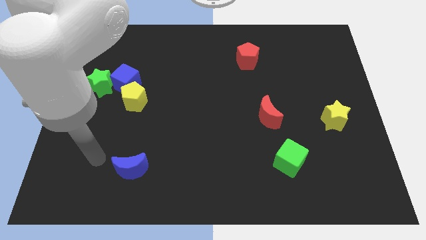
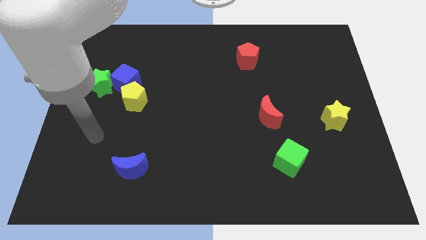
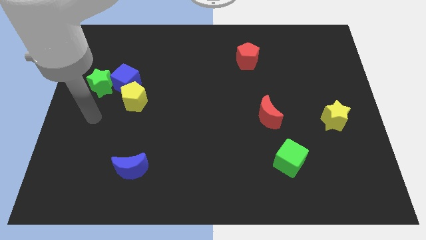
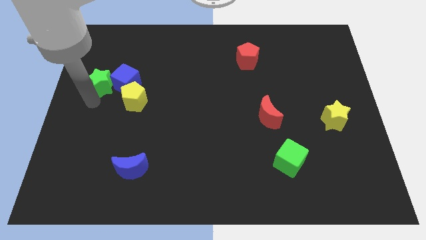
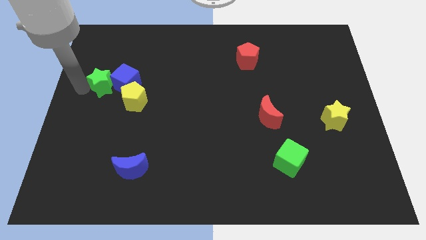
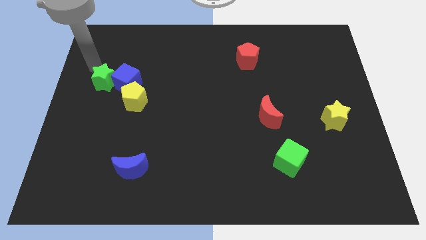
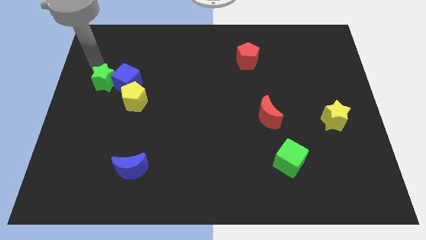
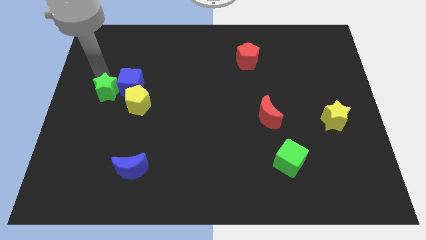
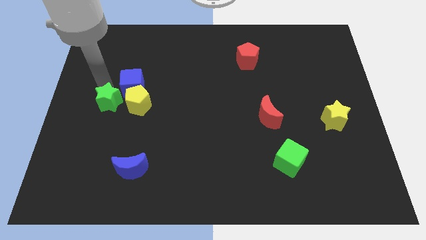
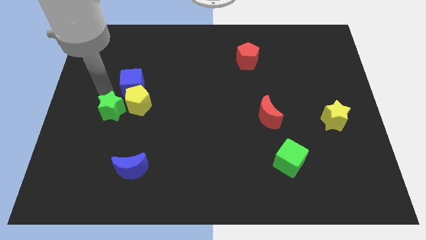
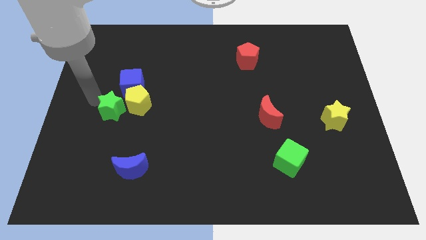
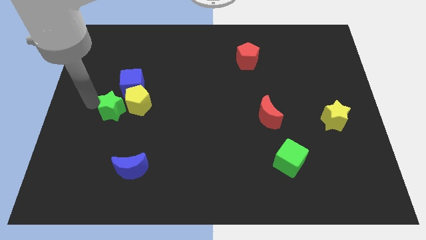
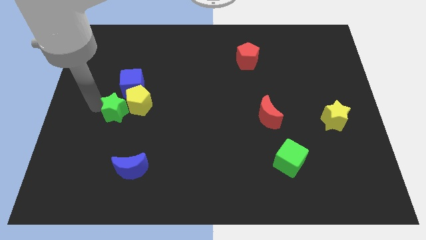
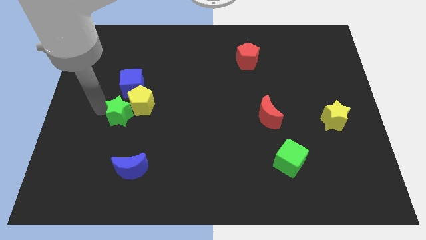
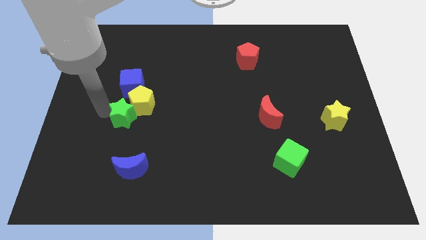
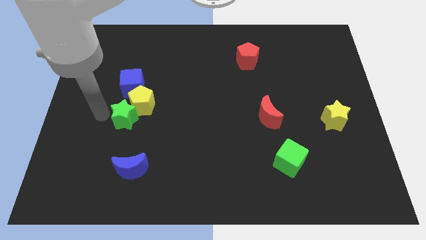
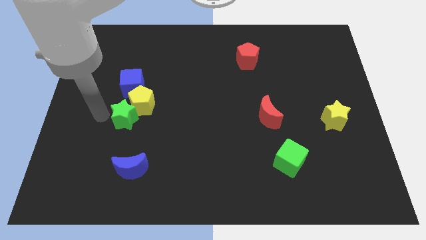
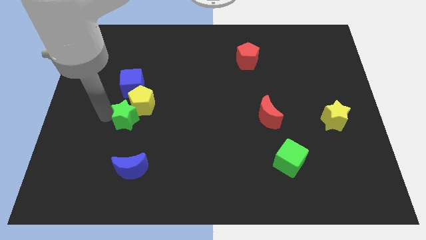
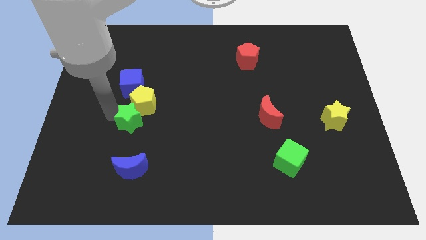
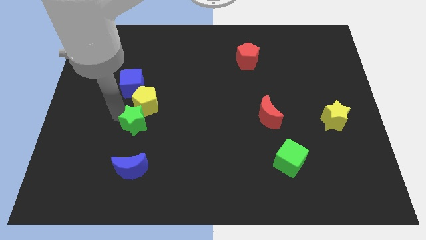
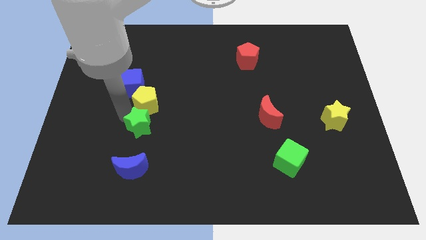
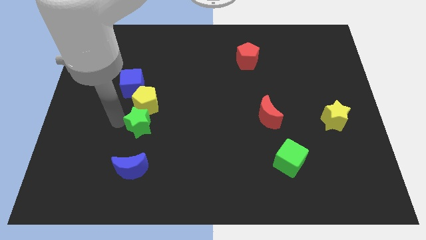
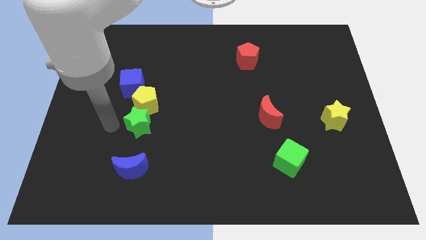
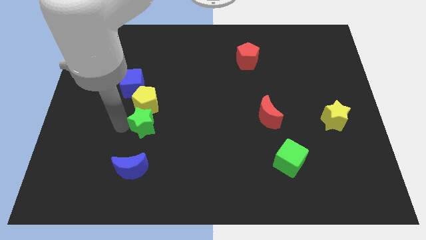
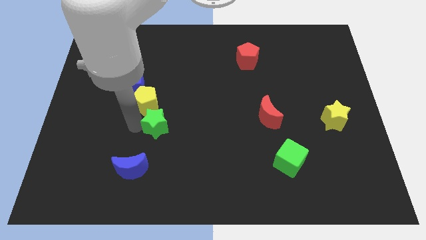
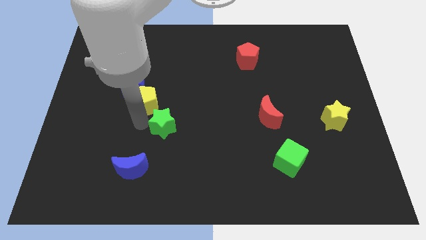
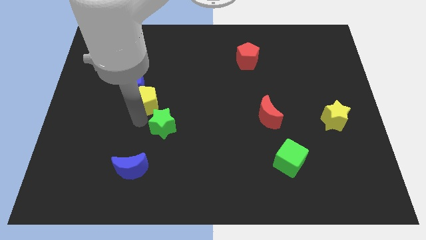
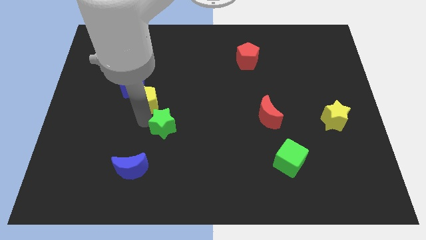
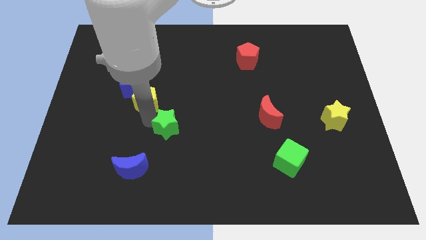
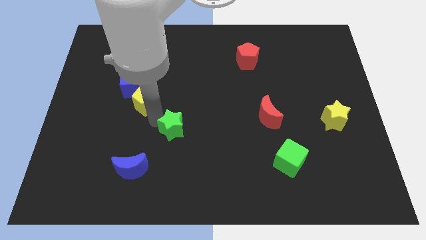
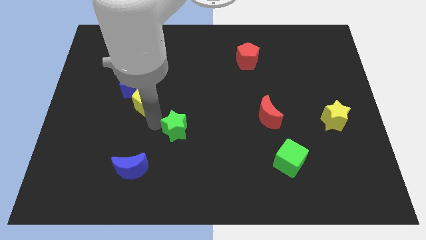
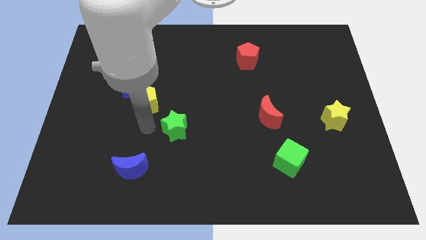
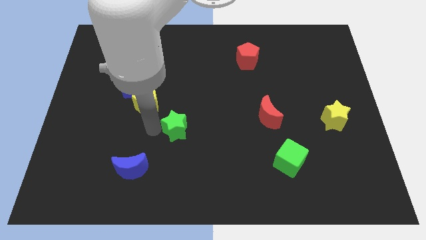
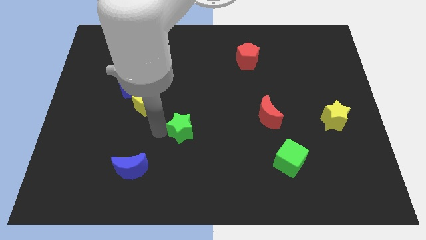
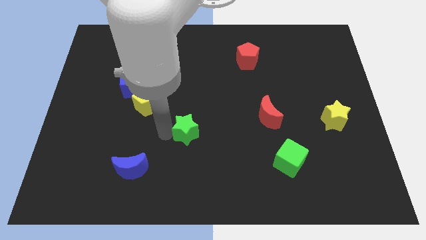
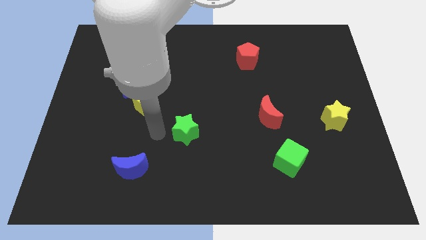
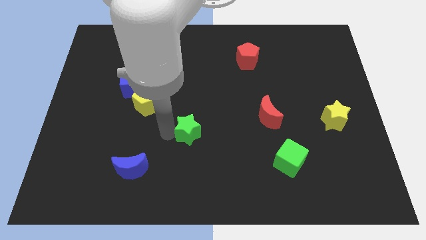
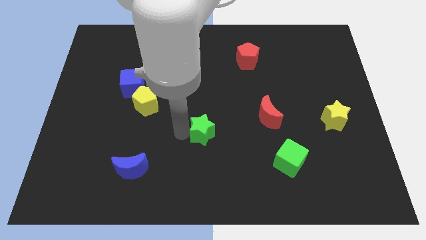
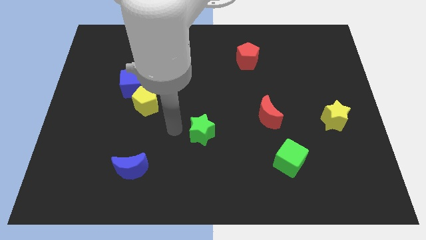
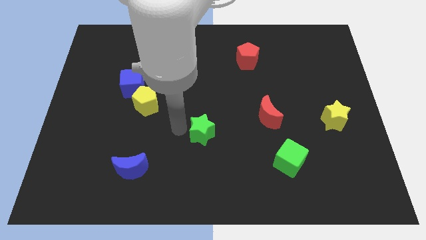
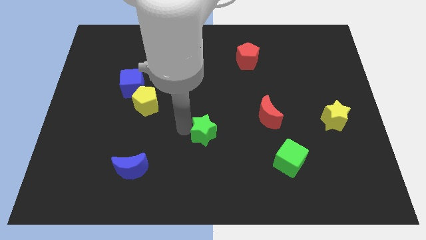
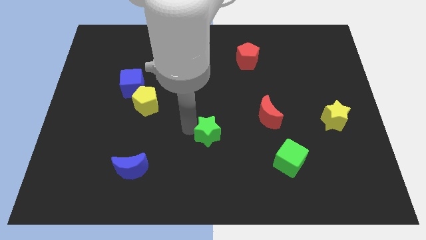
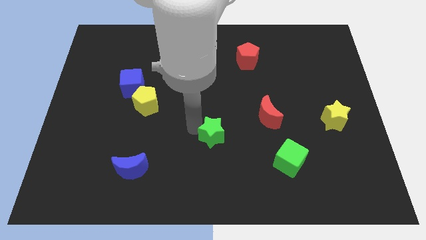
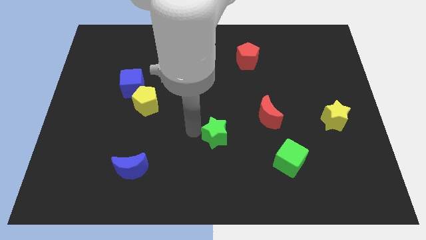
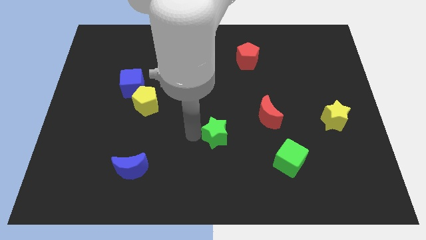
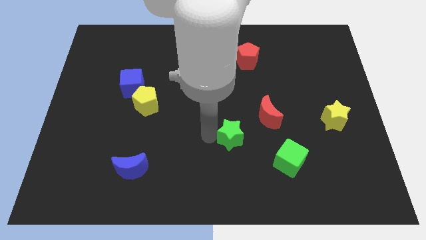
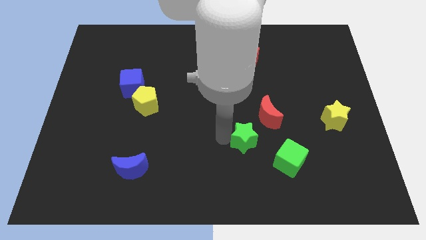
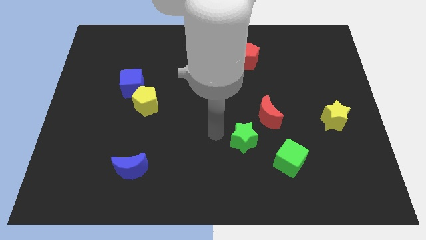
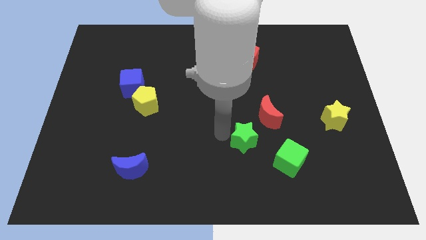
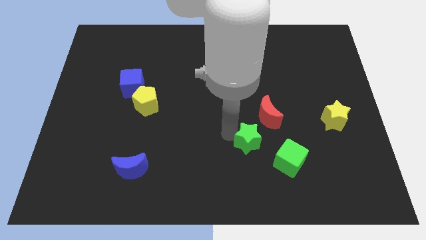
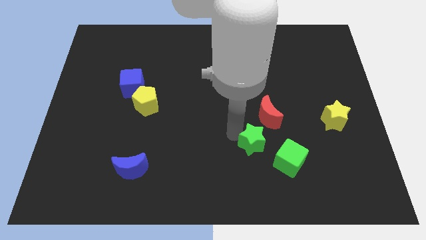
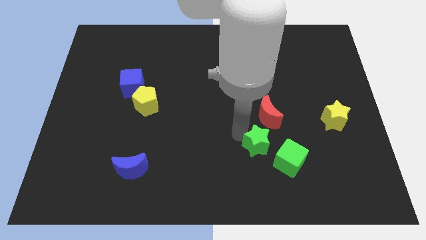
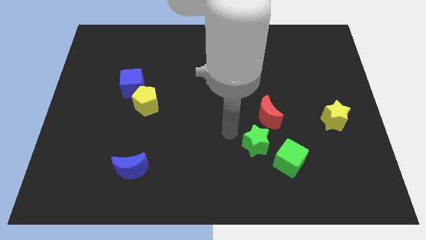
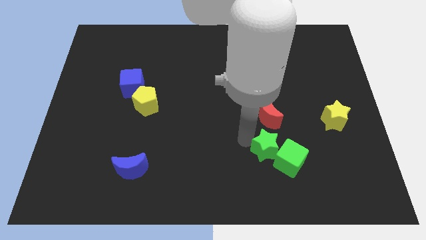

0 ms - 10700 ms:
move the green star to the green cube

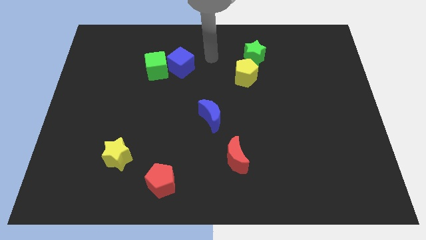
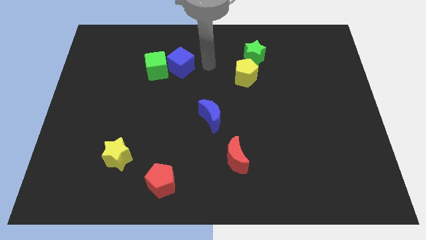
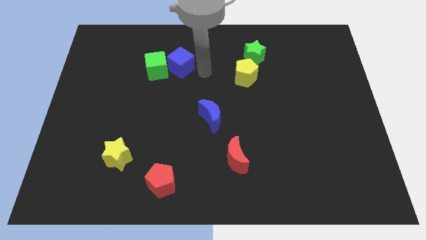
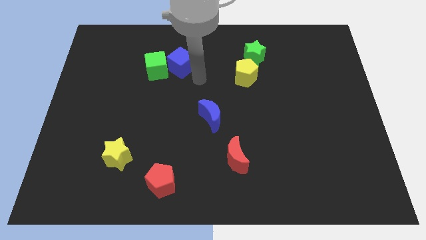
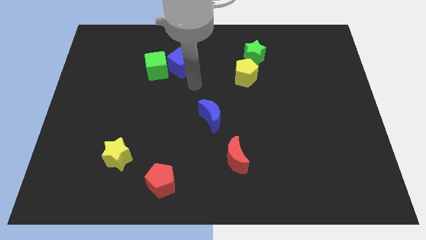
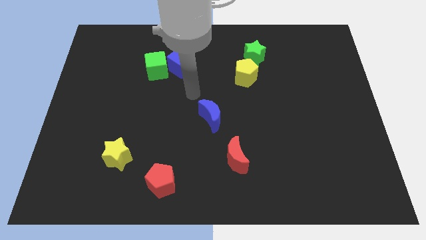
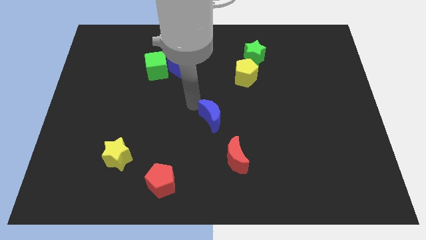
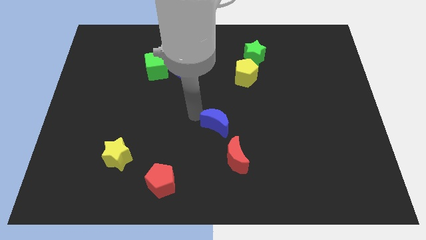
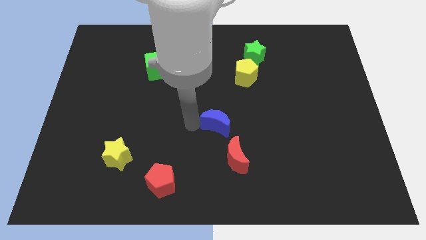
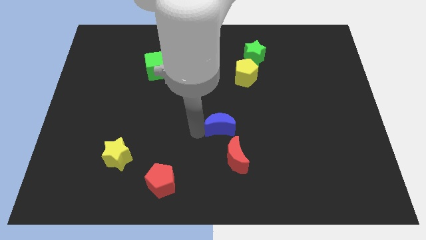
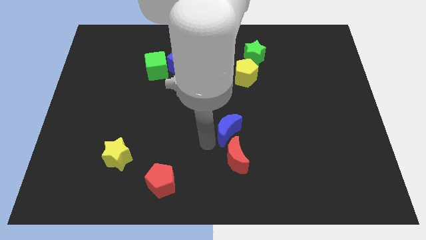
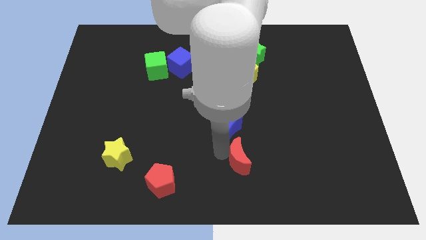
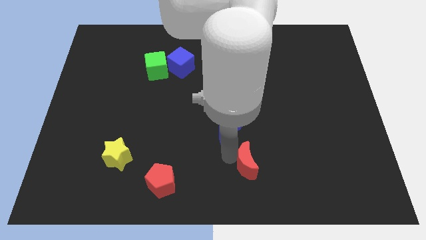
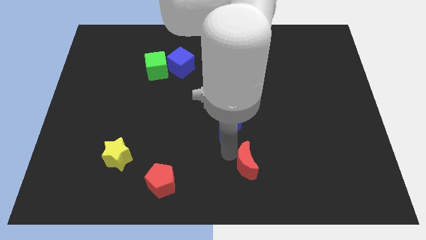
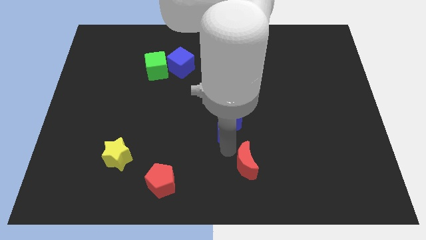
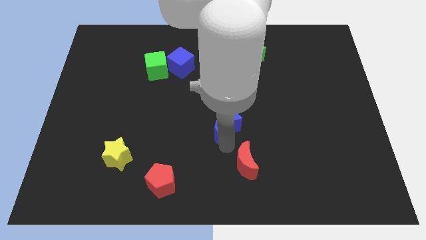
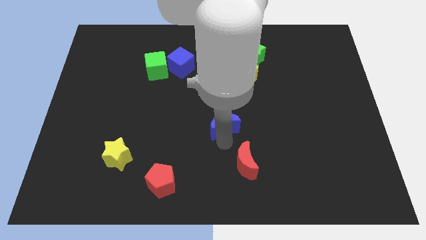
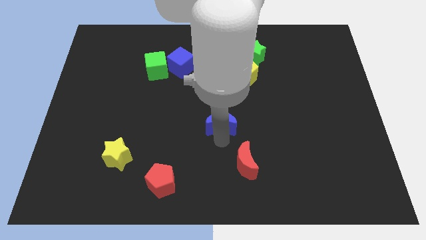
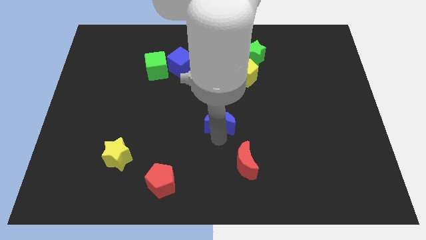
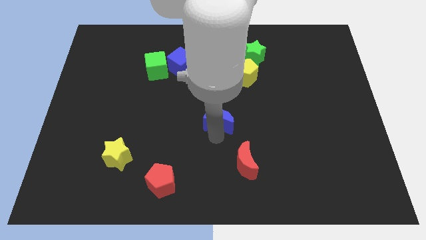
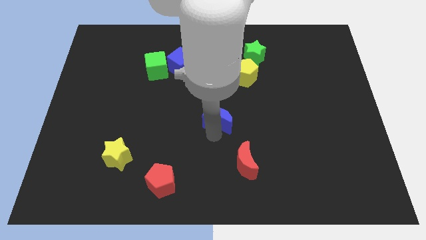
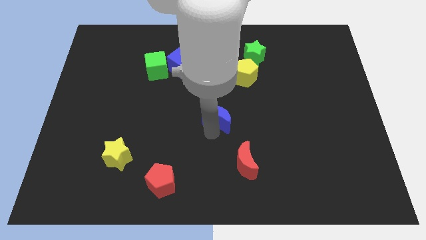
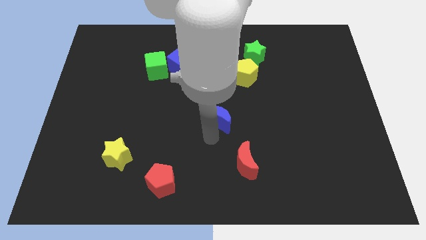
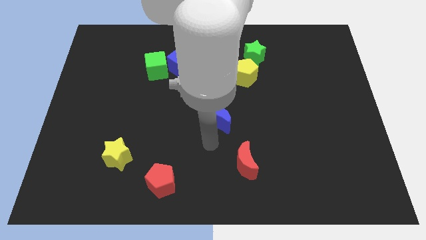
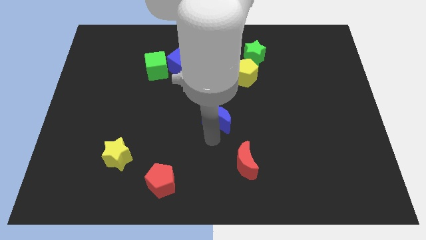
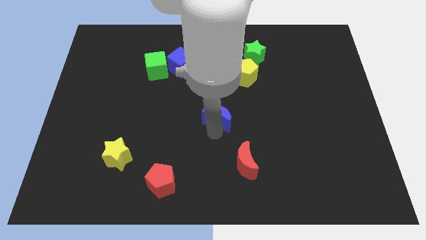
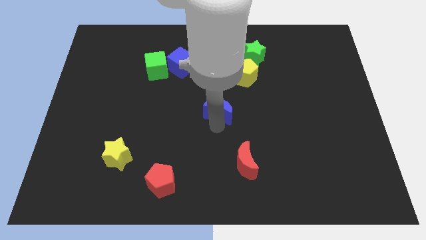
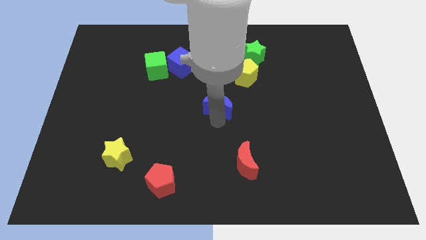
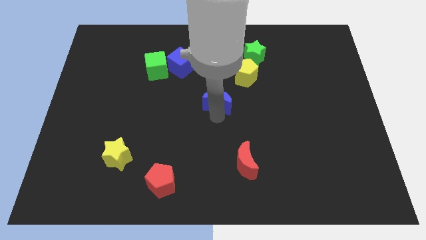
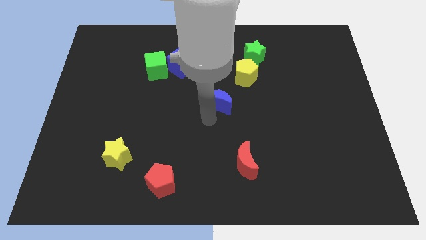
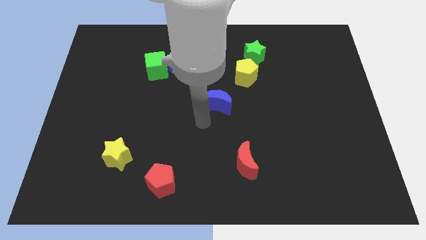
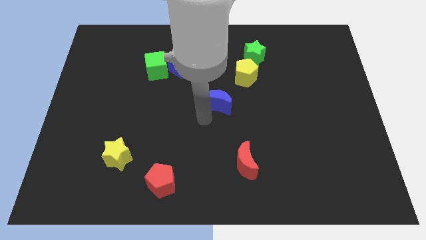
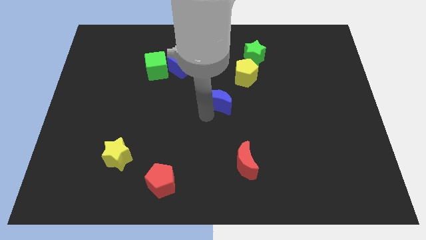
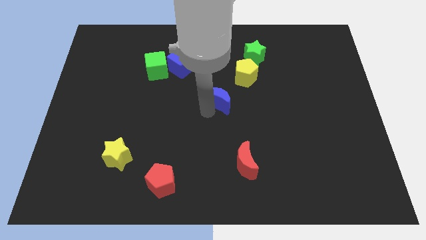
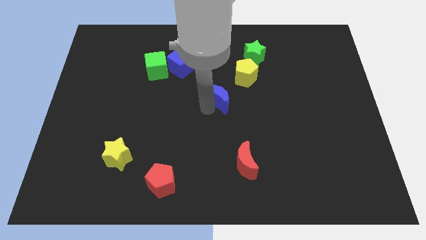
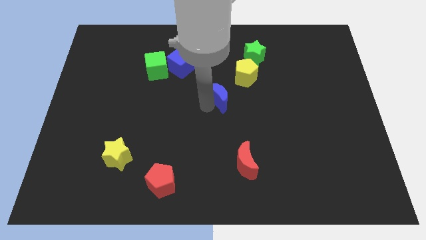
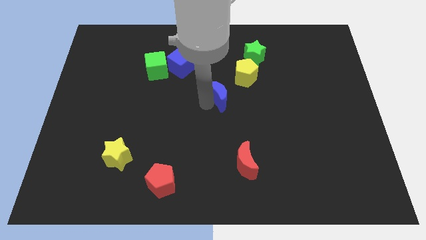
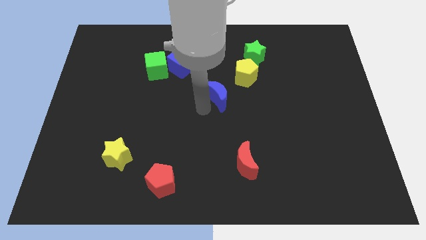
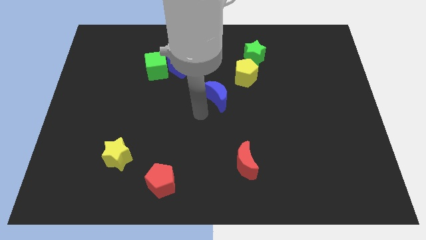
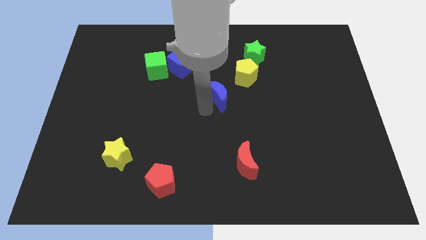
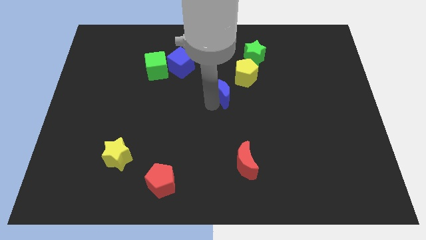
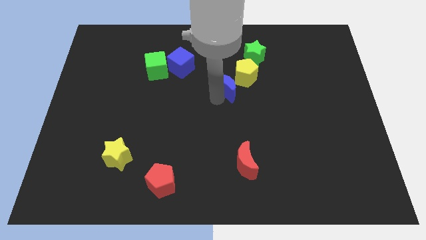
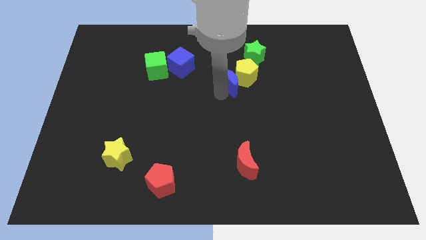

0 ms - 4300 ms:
push the blue moon next to the yellow pentagon
